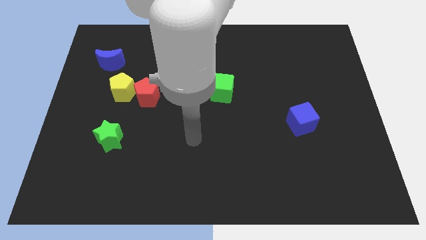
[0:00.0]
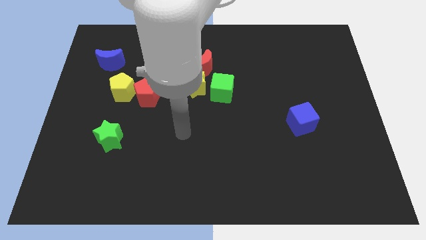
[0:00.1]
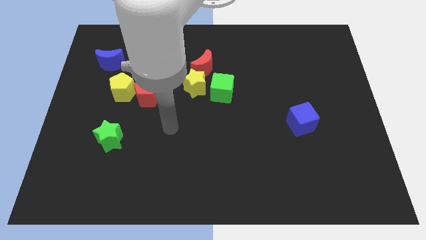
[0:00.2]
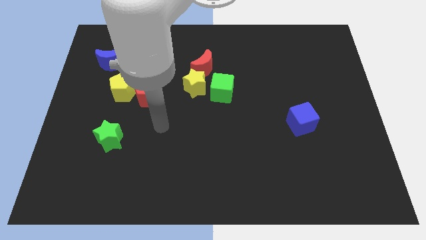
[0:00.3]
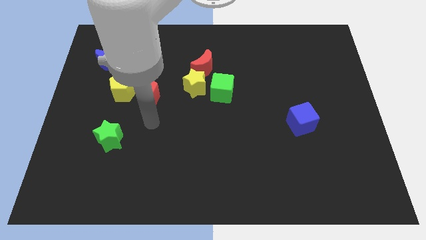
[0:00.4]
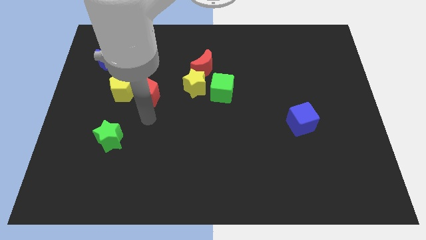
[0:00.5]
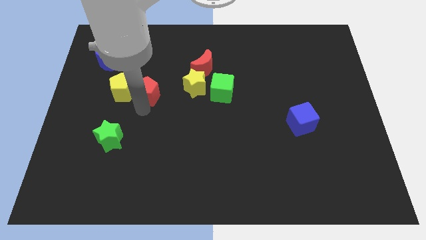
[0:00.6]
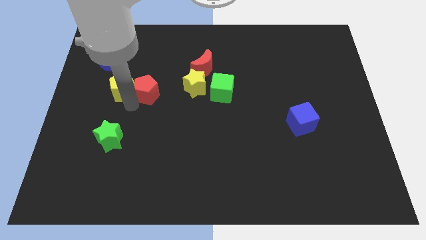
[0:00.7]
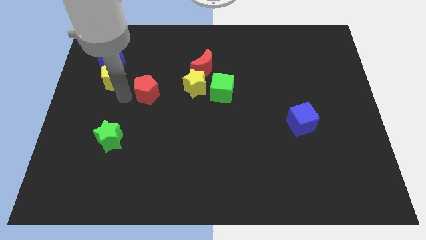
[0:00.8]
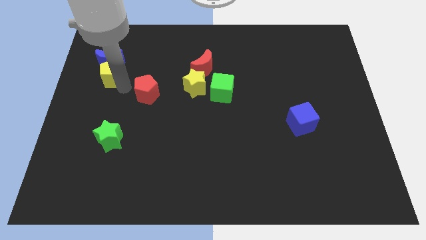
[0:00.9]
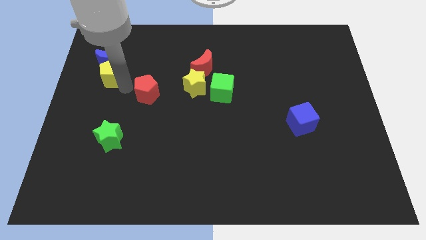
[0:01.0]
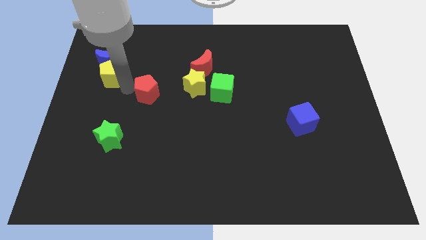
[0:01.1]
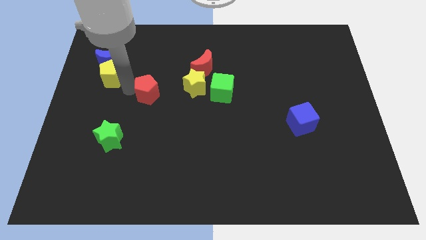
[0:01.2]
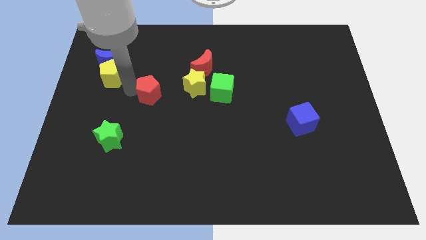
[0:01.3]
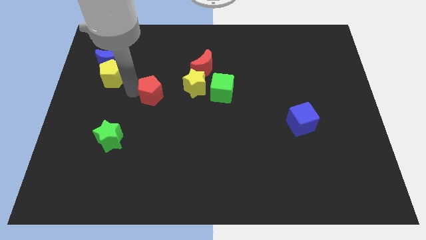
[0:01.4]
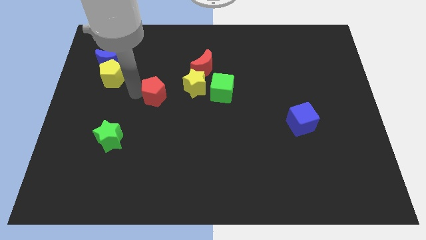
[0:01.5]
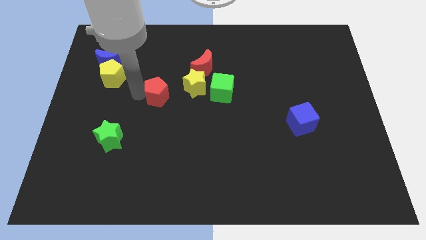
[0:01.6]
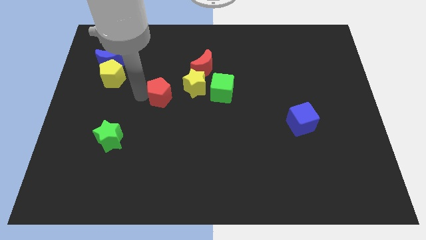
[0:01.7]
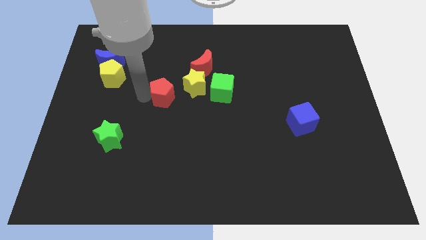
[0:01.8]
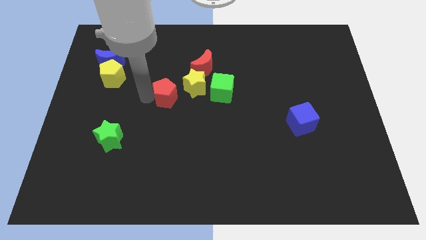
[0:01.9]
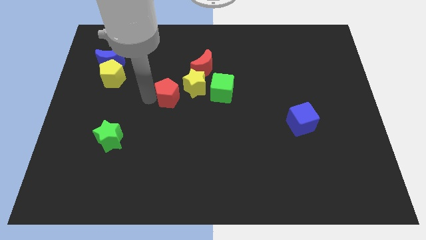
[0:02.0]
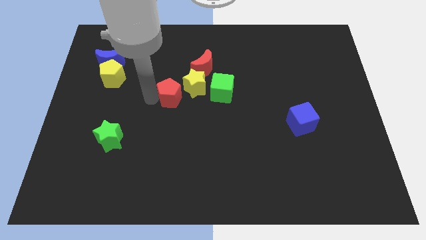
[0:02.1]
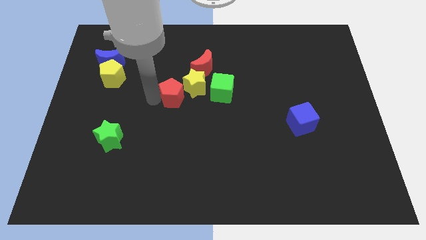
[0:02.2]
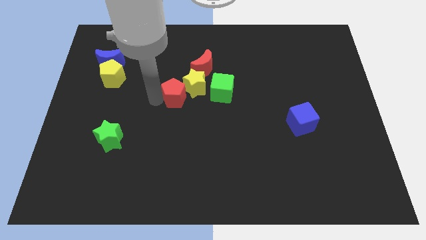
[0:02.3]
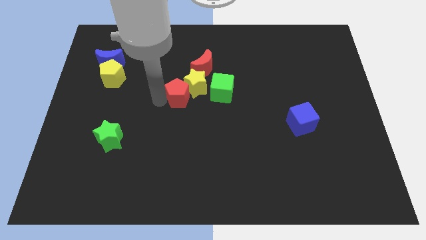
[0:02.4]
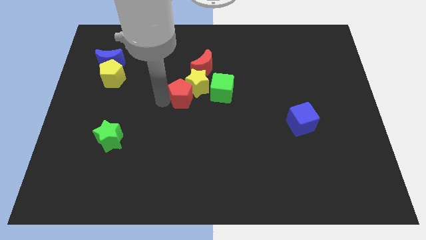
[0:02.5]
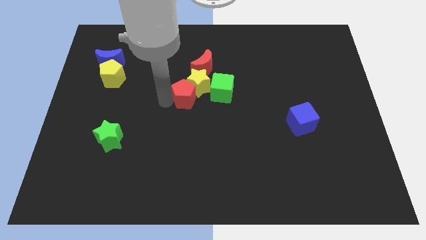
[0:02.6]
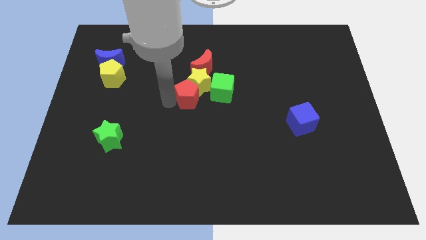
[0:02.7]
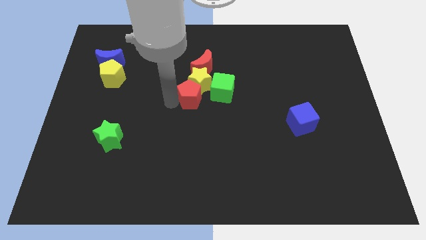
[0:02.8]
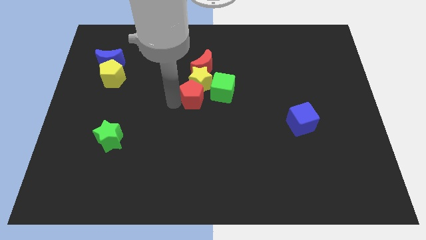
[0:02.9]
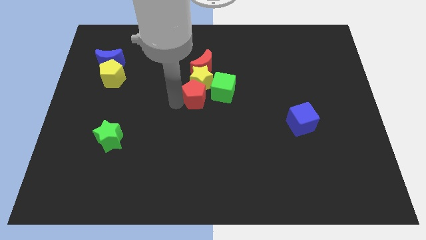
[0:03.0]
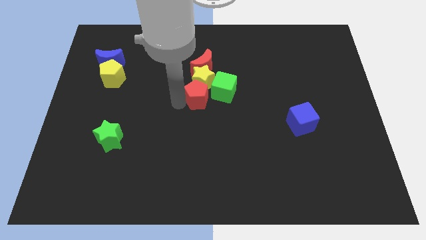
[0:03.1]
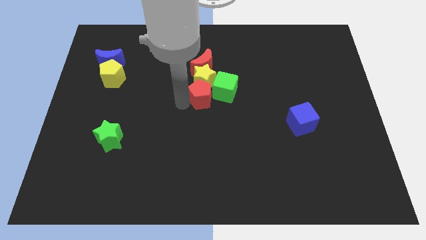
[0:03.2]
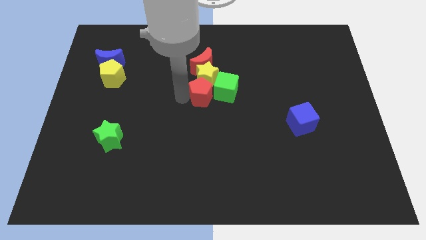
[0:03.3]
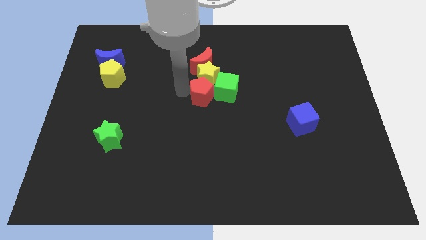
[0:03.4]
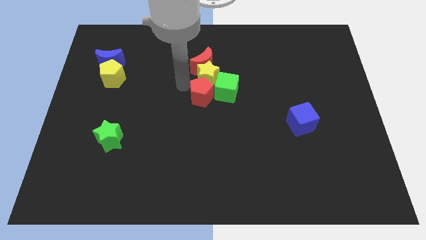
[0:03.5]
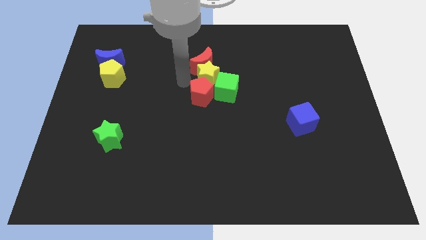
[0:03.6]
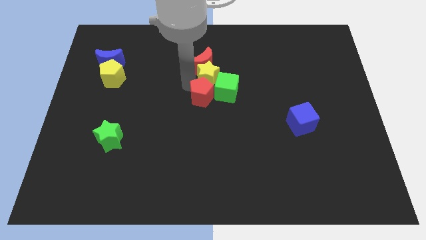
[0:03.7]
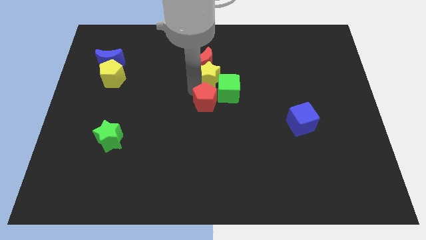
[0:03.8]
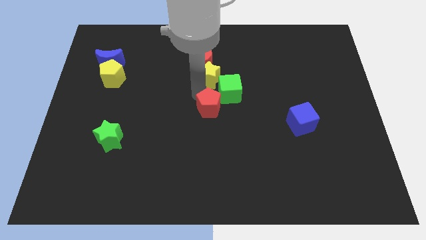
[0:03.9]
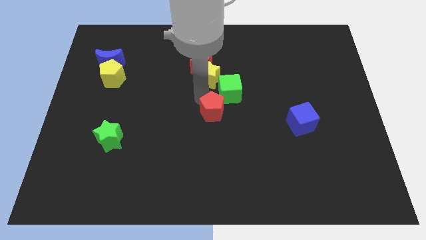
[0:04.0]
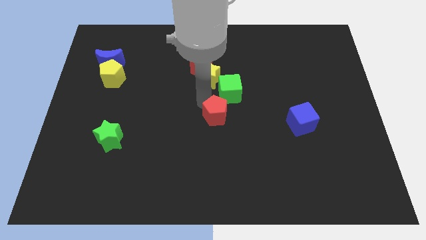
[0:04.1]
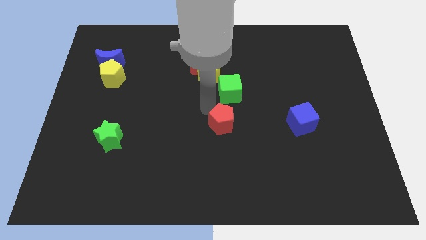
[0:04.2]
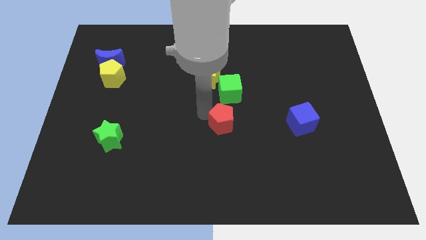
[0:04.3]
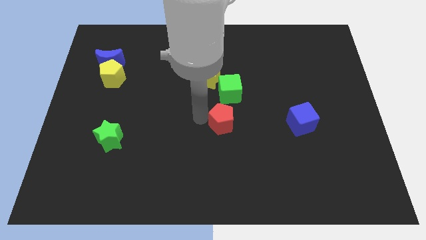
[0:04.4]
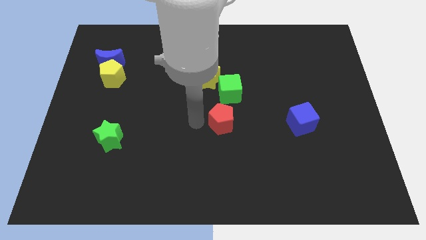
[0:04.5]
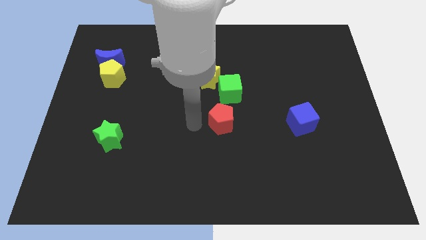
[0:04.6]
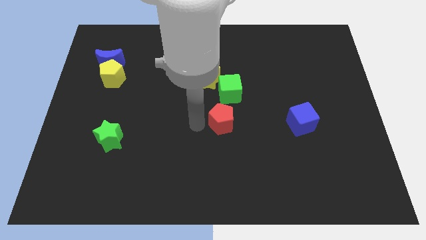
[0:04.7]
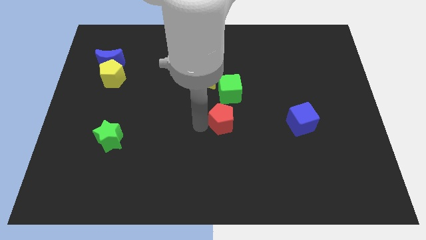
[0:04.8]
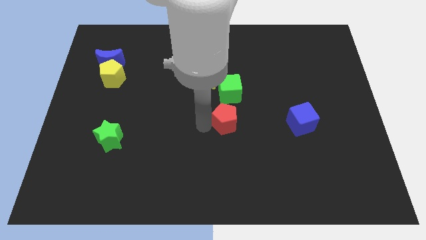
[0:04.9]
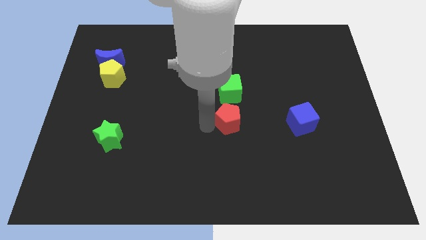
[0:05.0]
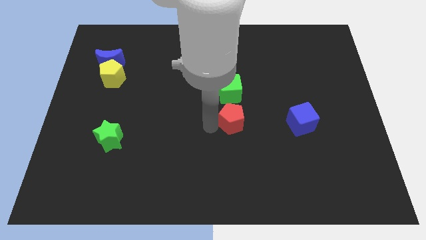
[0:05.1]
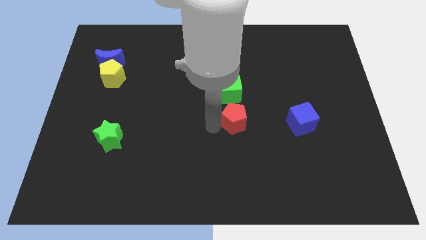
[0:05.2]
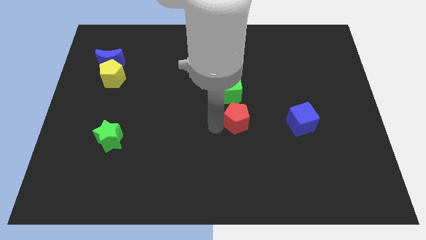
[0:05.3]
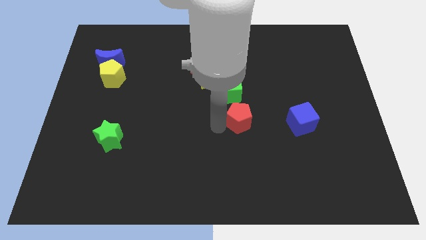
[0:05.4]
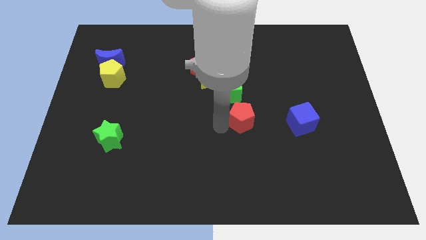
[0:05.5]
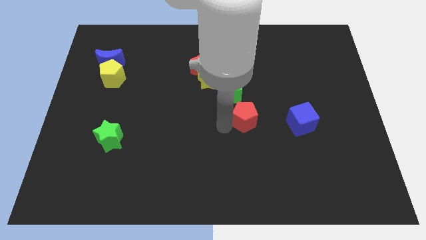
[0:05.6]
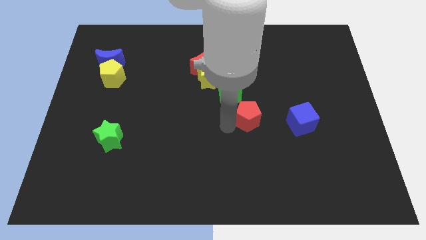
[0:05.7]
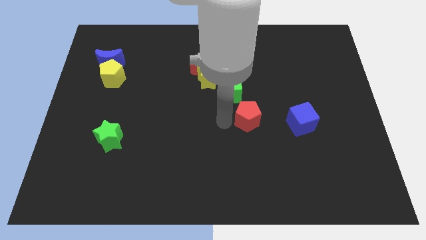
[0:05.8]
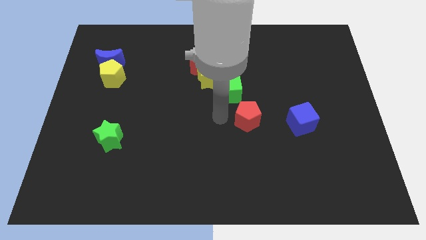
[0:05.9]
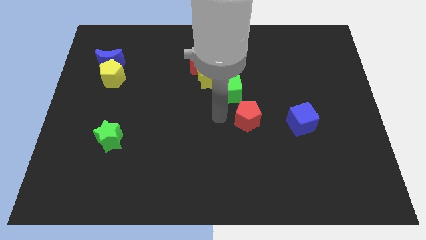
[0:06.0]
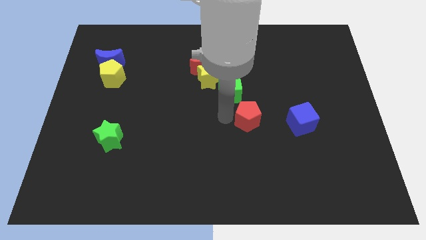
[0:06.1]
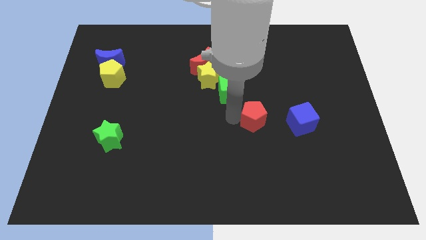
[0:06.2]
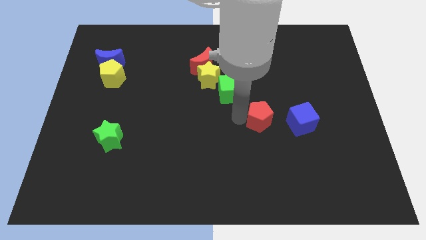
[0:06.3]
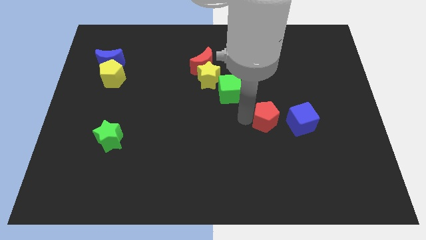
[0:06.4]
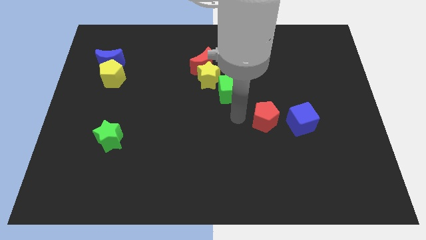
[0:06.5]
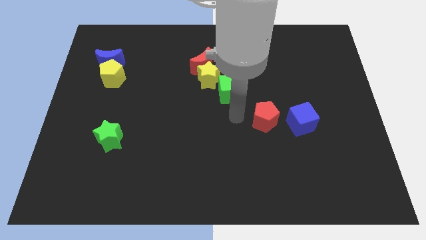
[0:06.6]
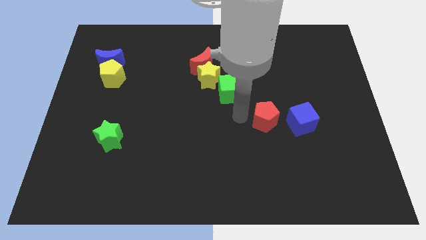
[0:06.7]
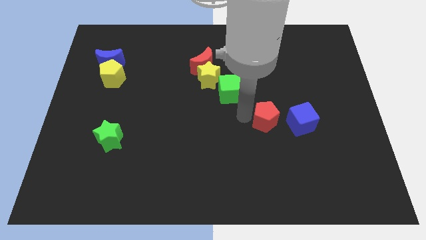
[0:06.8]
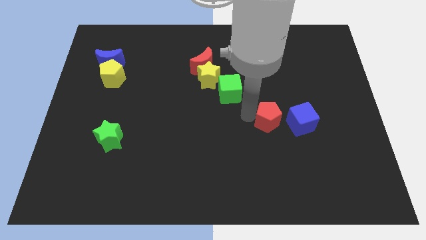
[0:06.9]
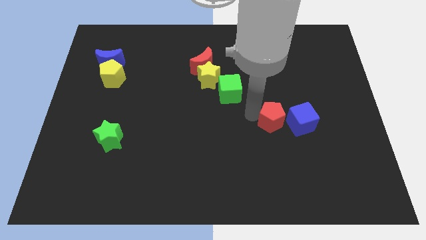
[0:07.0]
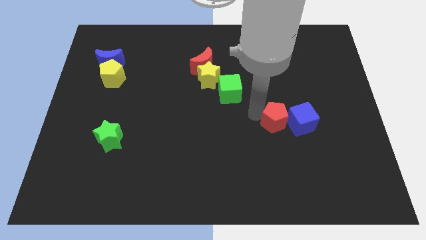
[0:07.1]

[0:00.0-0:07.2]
slide the red pentagon next to the blue cube
